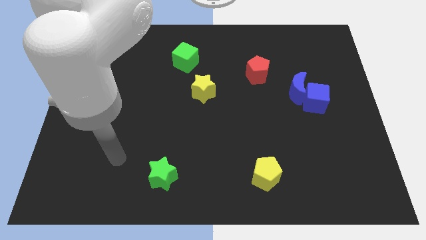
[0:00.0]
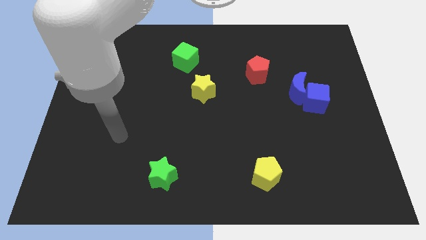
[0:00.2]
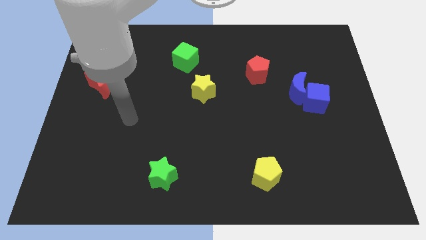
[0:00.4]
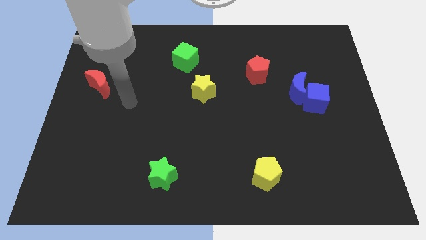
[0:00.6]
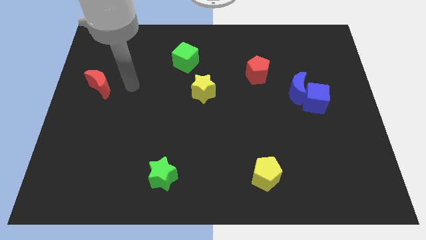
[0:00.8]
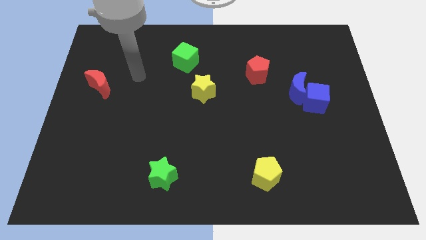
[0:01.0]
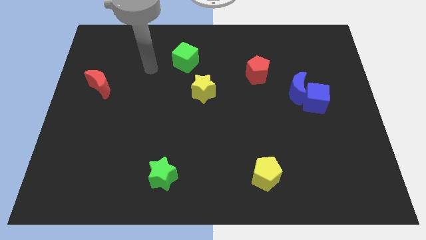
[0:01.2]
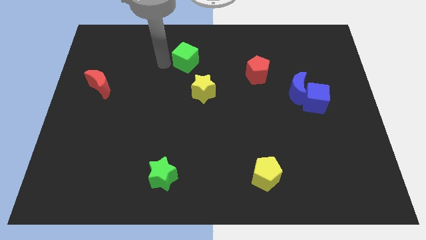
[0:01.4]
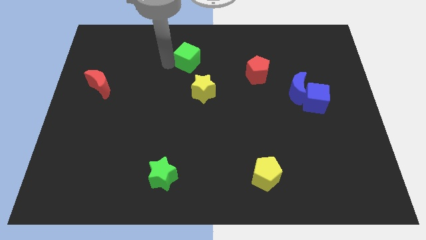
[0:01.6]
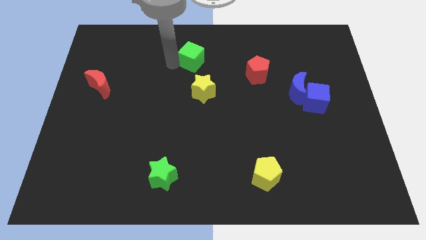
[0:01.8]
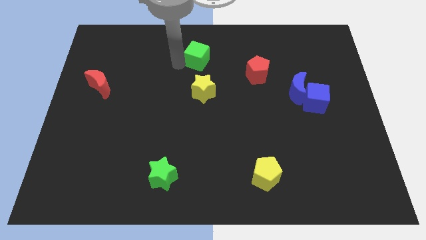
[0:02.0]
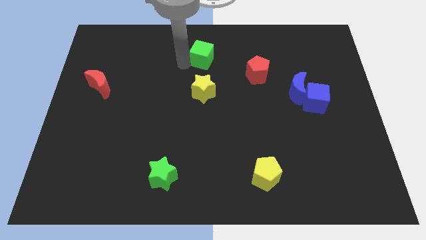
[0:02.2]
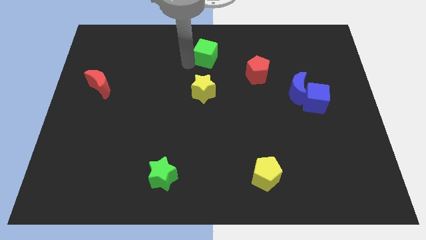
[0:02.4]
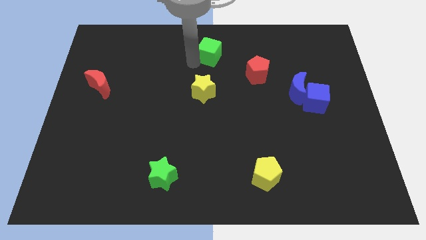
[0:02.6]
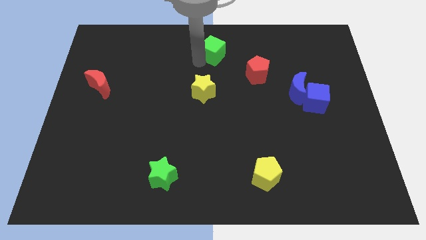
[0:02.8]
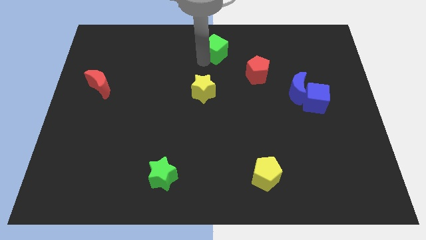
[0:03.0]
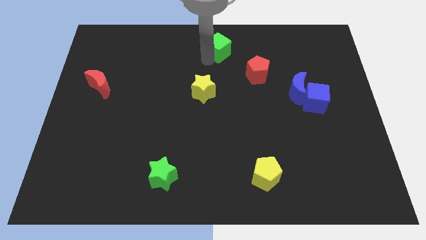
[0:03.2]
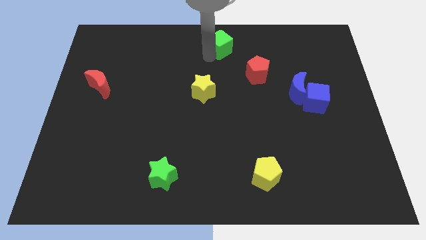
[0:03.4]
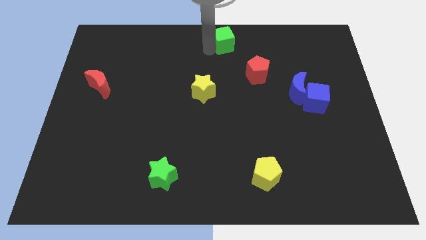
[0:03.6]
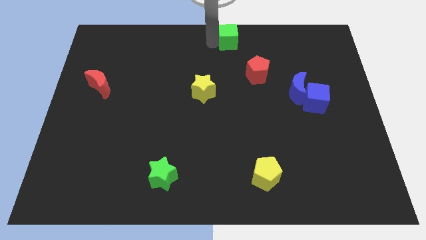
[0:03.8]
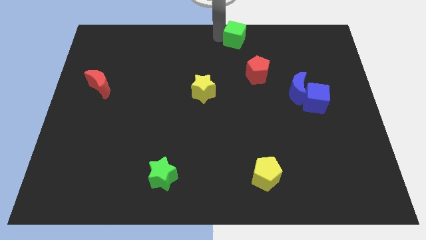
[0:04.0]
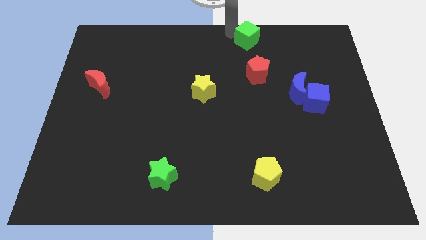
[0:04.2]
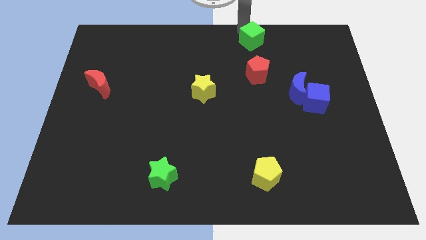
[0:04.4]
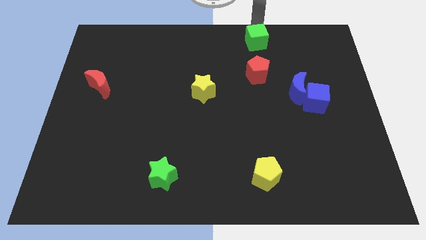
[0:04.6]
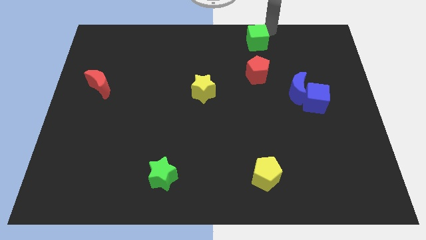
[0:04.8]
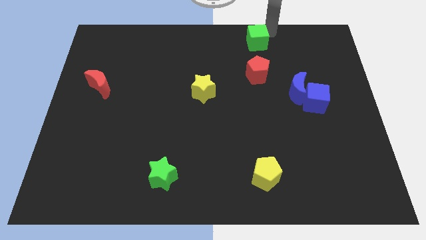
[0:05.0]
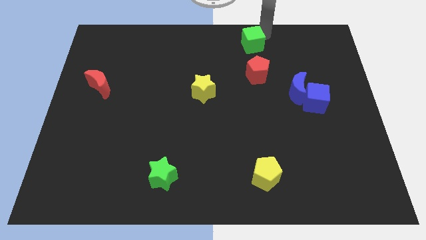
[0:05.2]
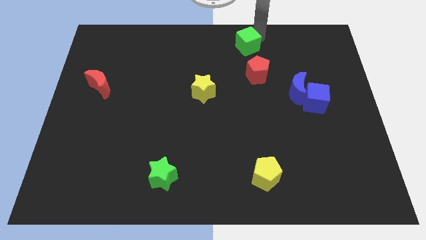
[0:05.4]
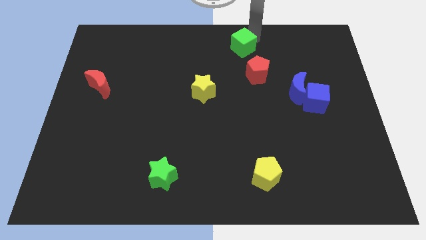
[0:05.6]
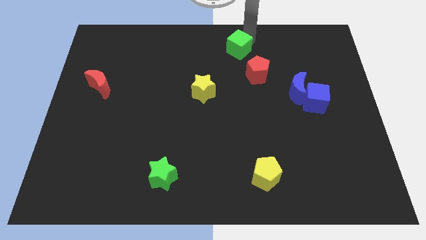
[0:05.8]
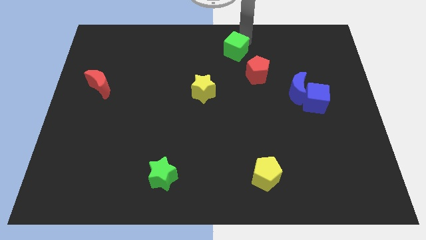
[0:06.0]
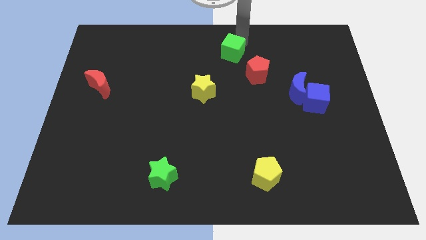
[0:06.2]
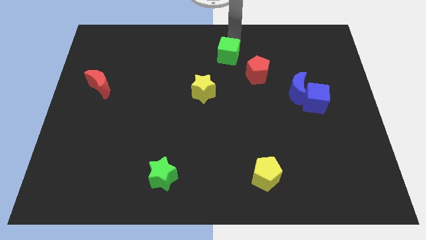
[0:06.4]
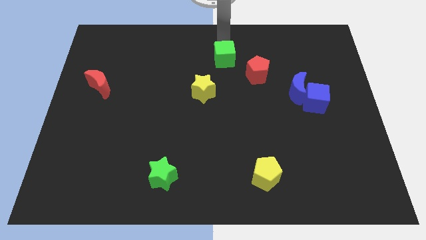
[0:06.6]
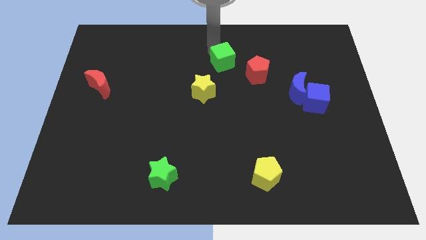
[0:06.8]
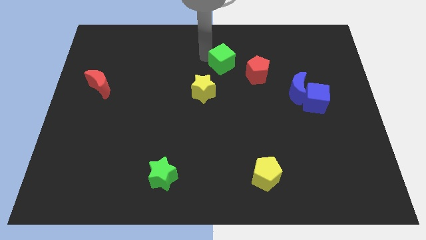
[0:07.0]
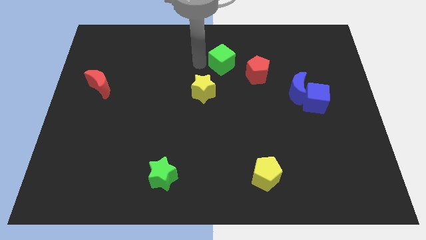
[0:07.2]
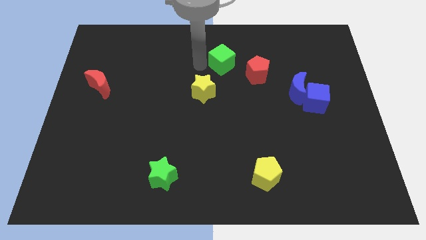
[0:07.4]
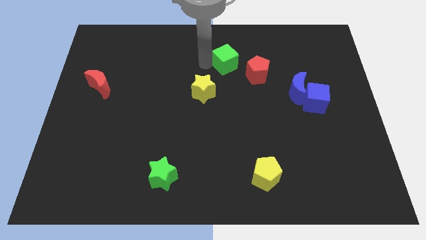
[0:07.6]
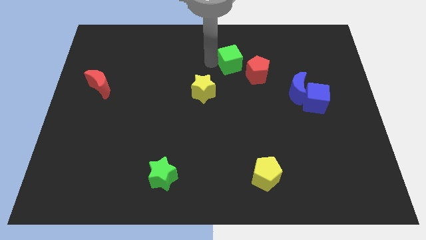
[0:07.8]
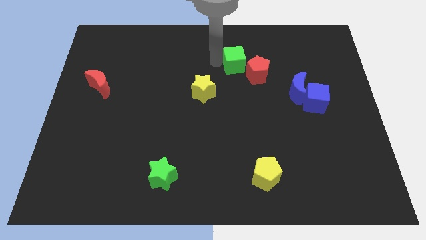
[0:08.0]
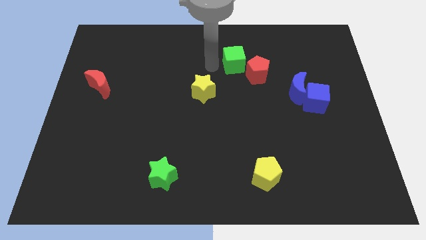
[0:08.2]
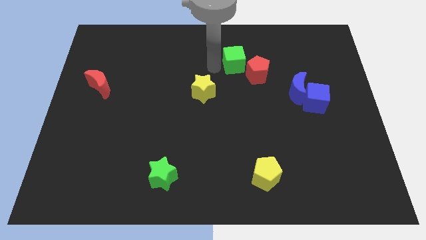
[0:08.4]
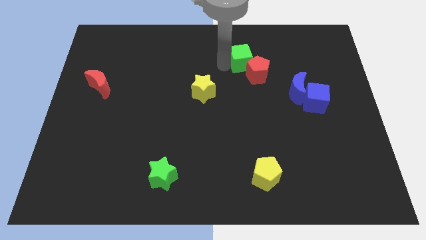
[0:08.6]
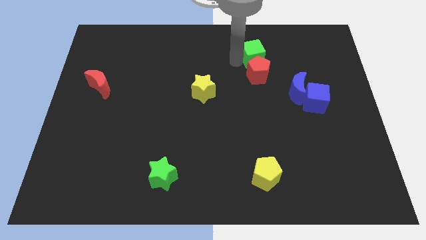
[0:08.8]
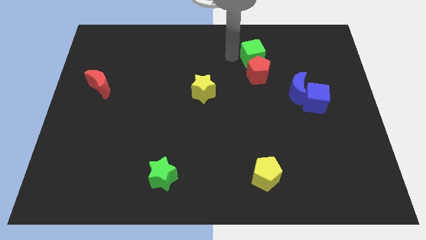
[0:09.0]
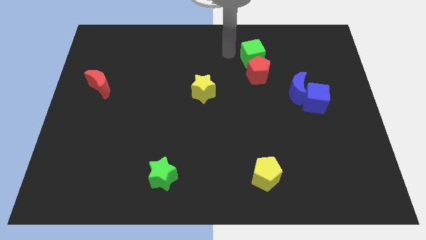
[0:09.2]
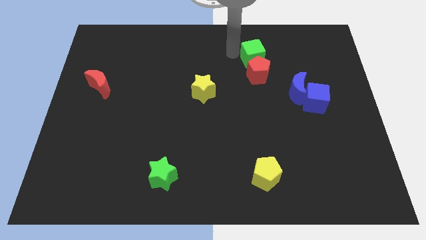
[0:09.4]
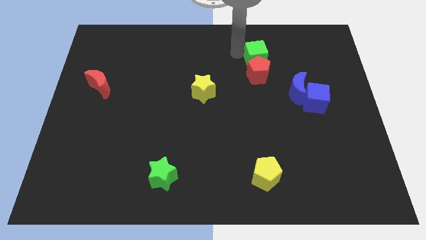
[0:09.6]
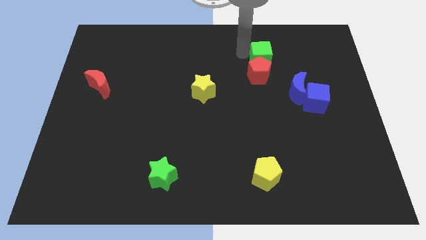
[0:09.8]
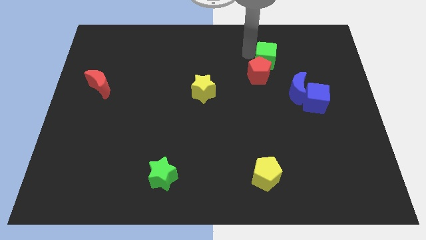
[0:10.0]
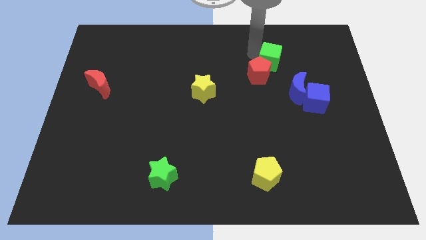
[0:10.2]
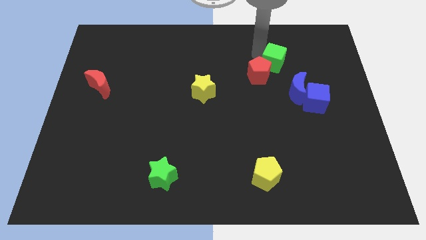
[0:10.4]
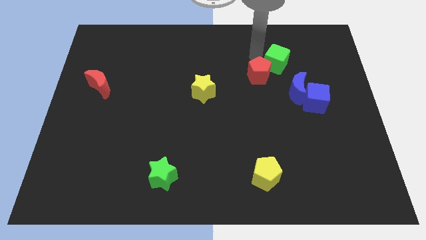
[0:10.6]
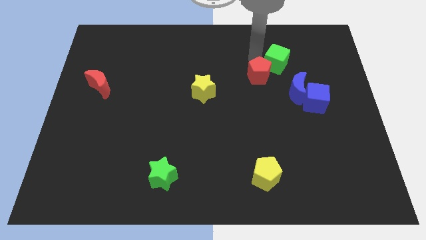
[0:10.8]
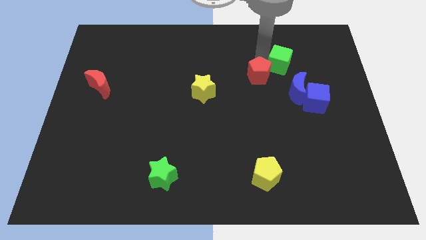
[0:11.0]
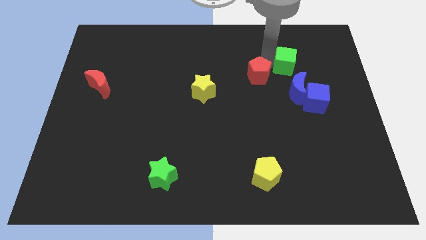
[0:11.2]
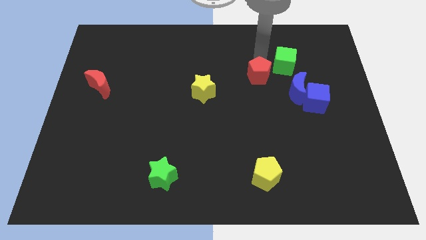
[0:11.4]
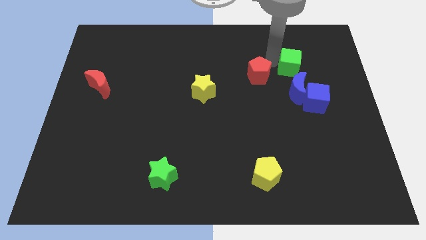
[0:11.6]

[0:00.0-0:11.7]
push the green cube to the top side of the blue cube

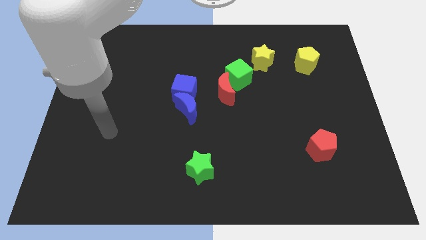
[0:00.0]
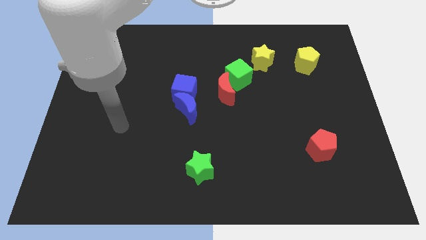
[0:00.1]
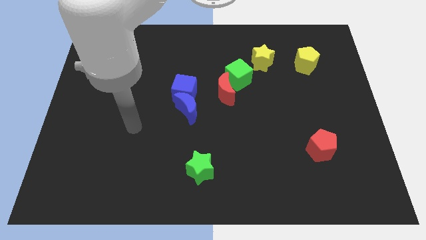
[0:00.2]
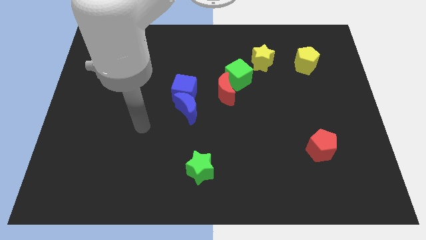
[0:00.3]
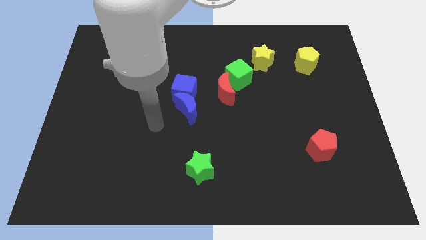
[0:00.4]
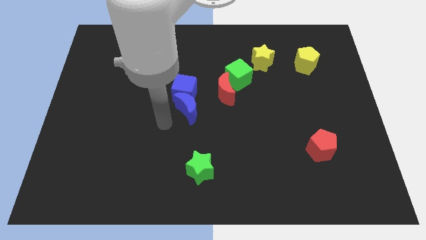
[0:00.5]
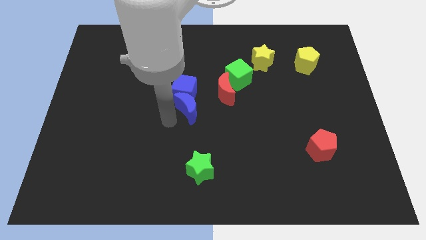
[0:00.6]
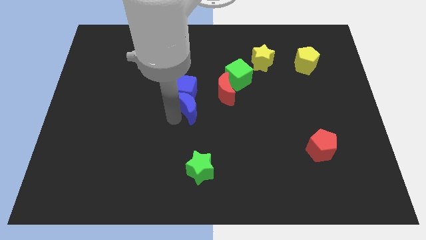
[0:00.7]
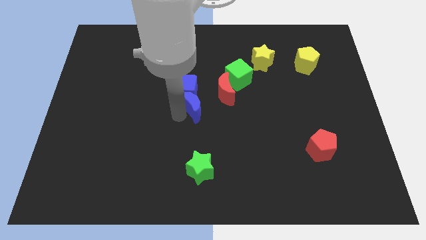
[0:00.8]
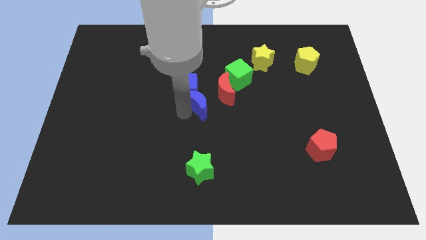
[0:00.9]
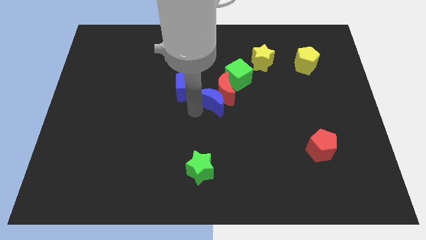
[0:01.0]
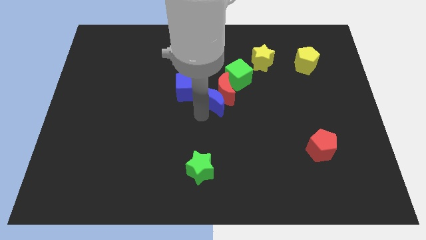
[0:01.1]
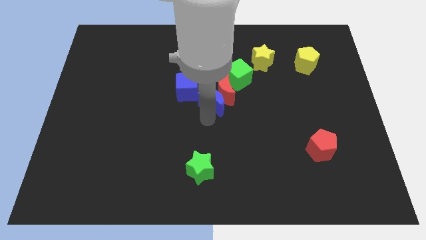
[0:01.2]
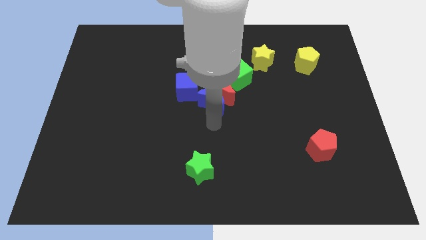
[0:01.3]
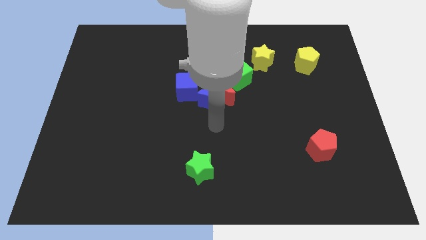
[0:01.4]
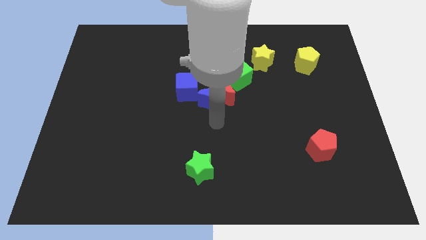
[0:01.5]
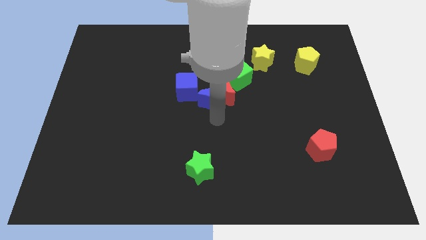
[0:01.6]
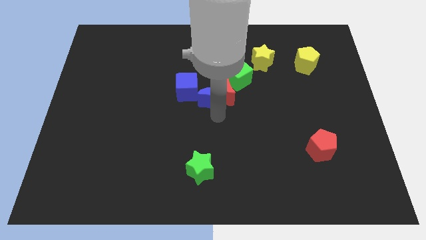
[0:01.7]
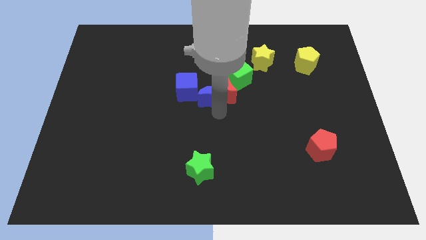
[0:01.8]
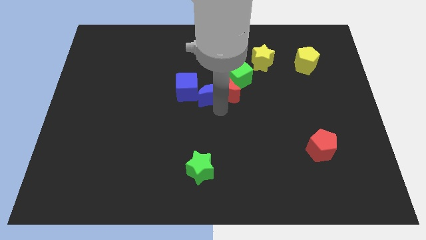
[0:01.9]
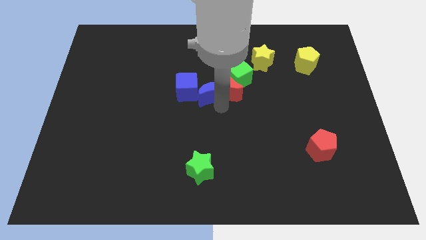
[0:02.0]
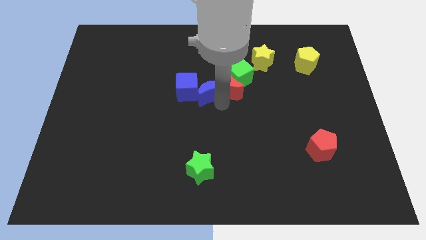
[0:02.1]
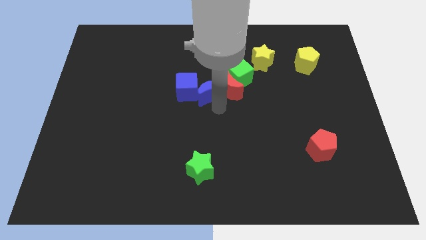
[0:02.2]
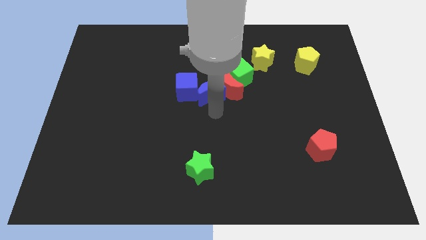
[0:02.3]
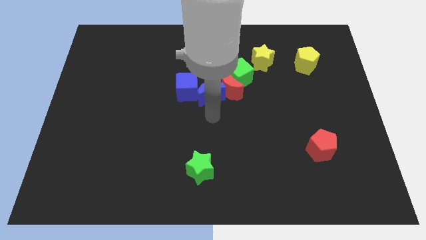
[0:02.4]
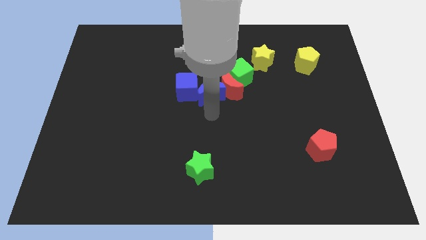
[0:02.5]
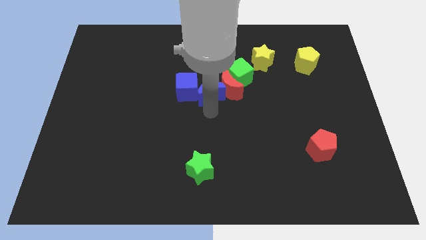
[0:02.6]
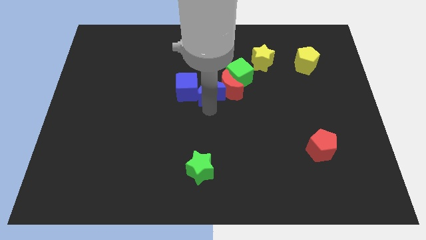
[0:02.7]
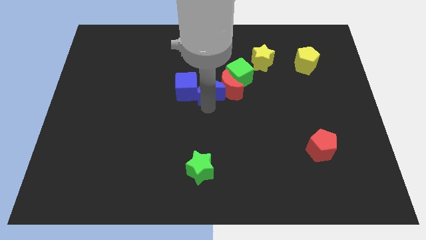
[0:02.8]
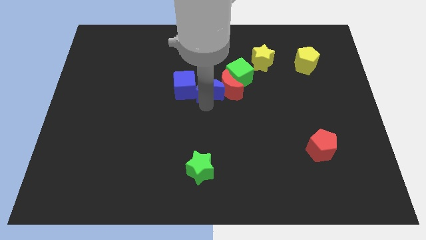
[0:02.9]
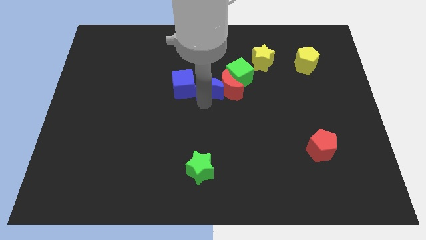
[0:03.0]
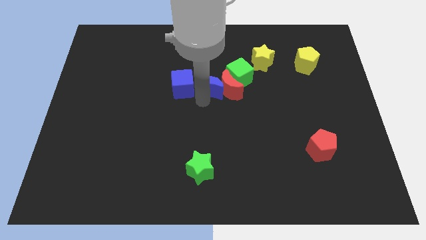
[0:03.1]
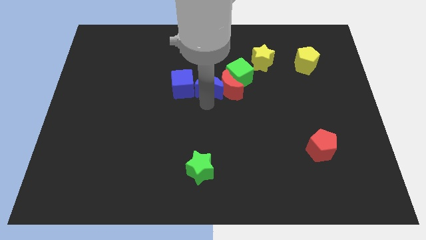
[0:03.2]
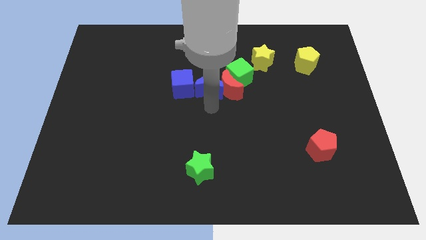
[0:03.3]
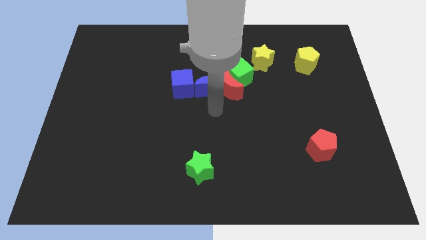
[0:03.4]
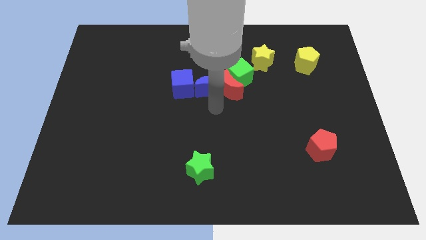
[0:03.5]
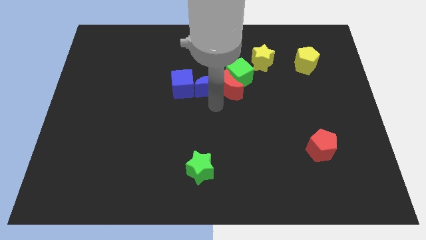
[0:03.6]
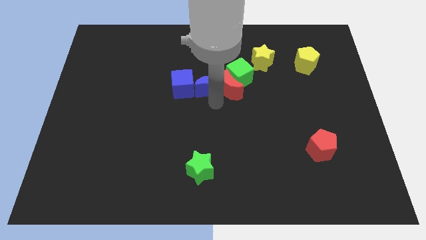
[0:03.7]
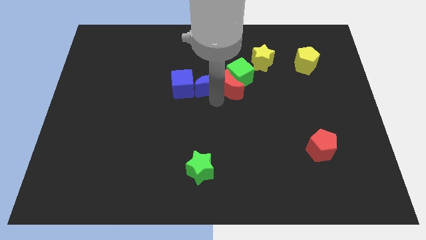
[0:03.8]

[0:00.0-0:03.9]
push the blue moon diagonally up and to the right of the blue cube
